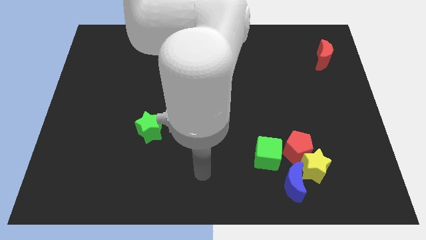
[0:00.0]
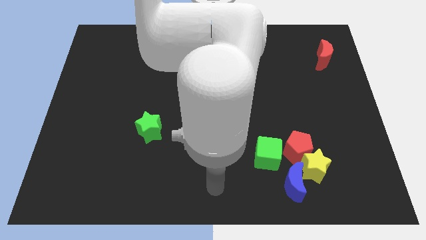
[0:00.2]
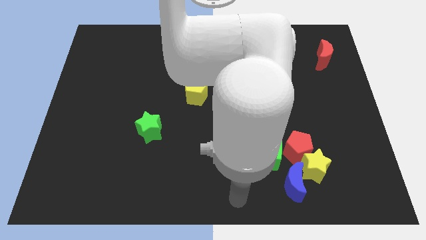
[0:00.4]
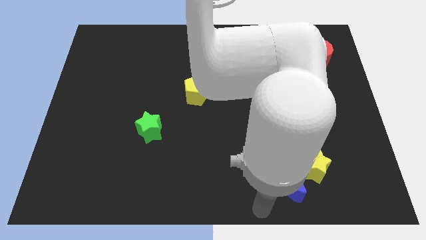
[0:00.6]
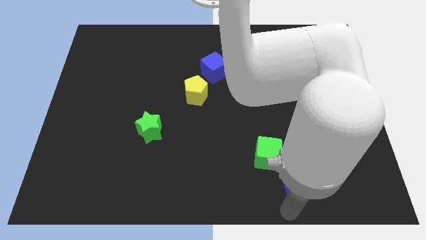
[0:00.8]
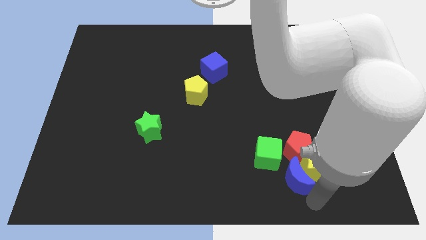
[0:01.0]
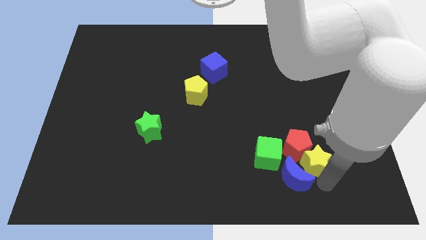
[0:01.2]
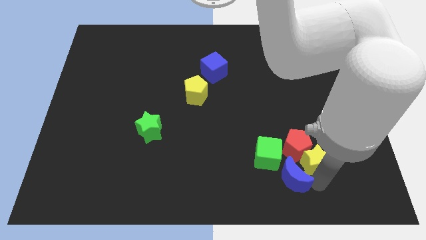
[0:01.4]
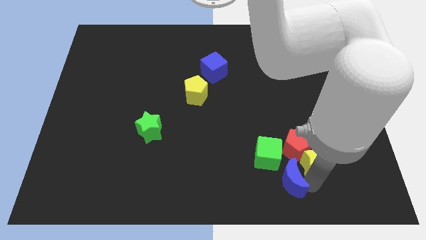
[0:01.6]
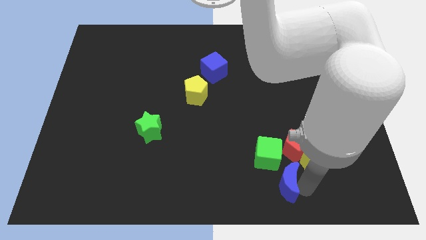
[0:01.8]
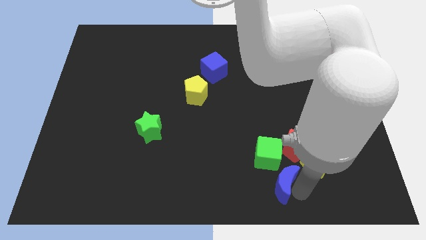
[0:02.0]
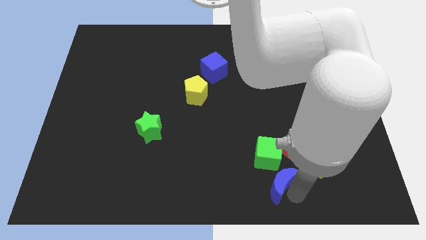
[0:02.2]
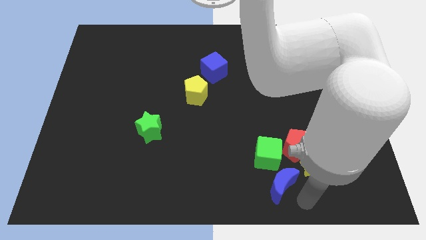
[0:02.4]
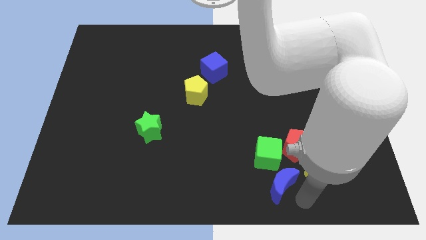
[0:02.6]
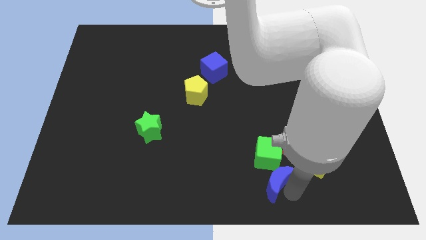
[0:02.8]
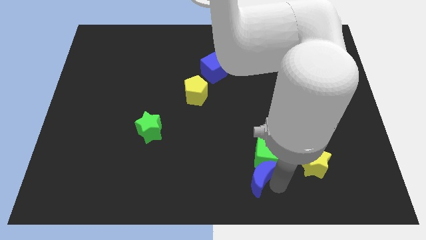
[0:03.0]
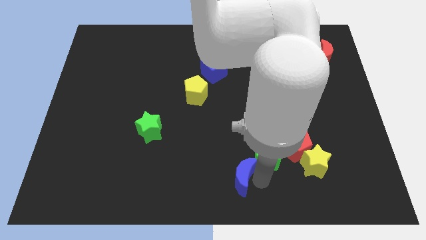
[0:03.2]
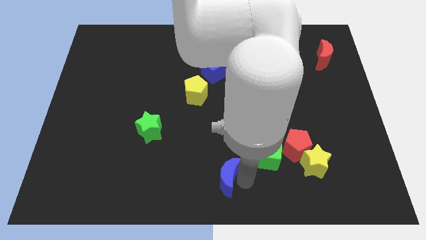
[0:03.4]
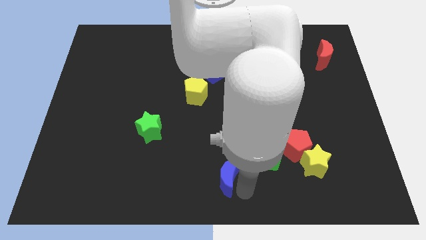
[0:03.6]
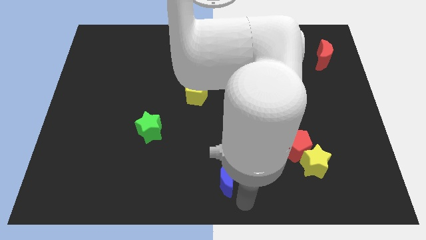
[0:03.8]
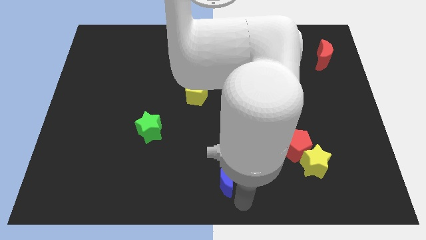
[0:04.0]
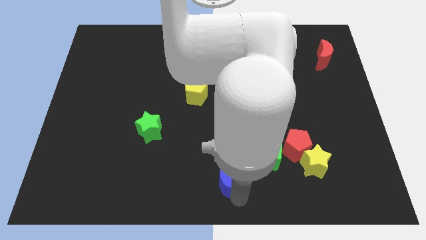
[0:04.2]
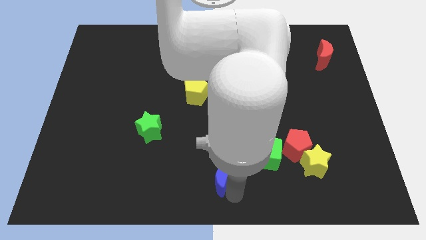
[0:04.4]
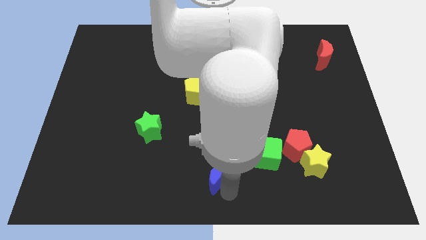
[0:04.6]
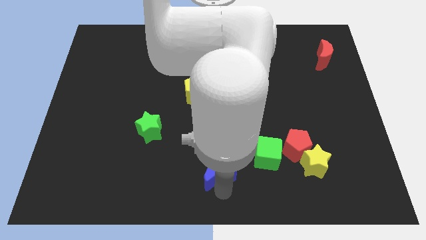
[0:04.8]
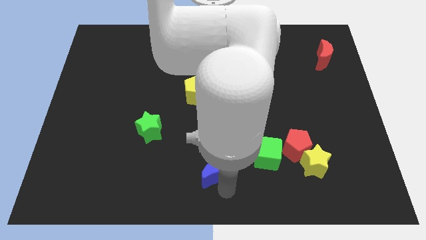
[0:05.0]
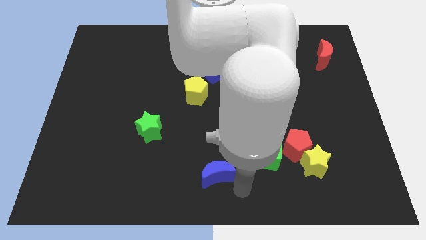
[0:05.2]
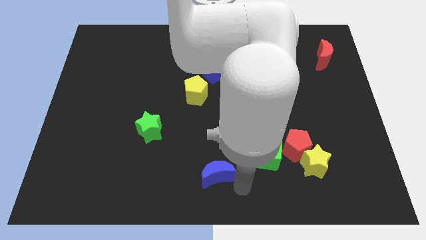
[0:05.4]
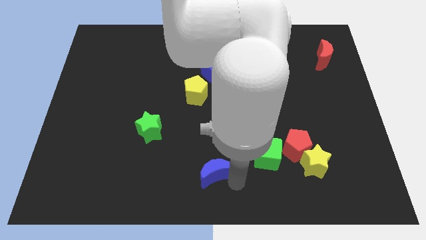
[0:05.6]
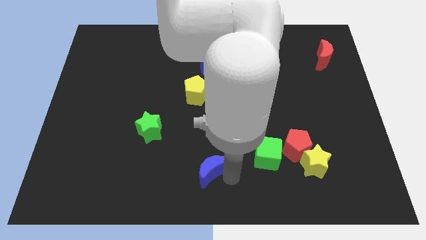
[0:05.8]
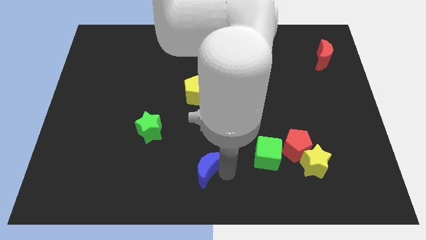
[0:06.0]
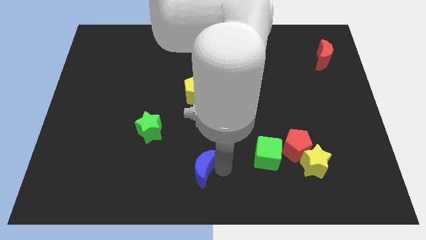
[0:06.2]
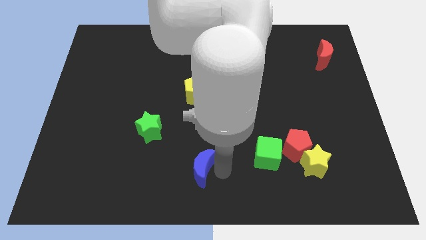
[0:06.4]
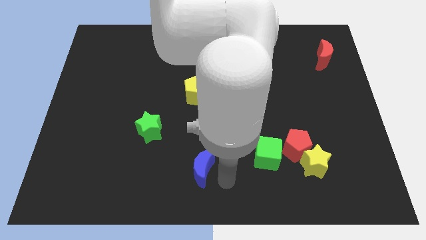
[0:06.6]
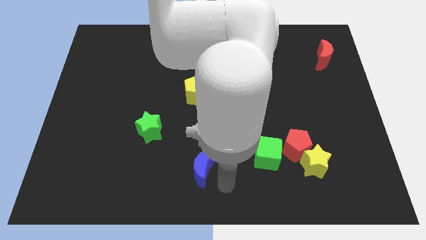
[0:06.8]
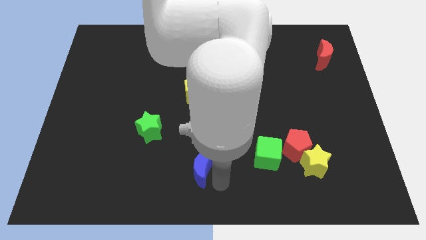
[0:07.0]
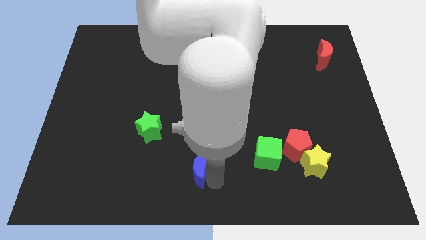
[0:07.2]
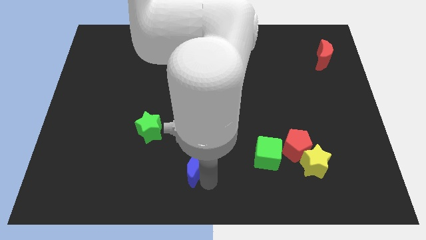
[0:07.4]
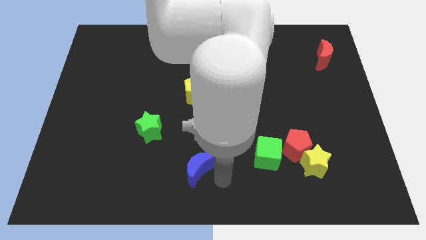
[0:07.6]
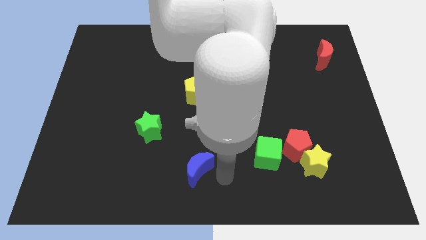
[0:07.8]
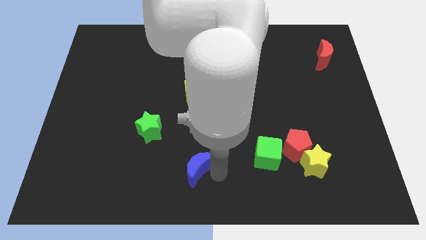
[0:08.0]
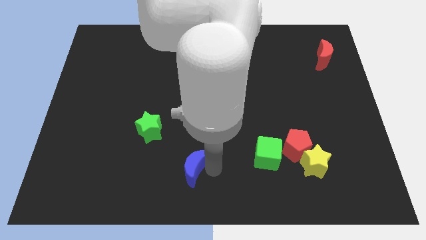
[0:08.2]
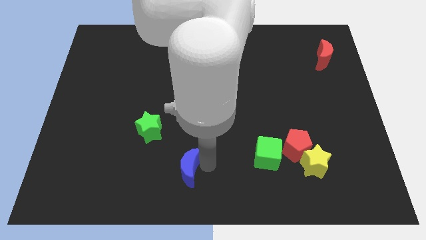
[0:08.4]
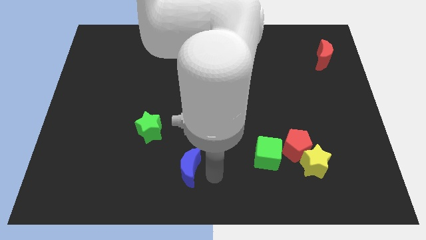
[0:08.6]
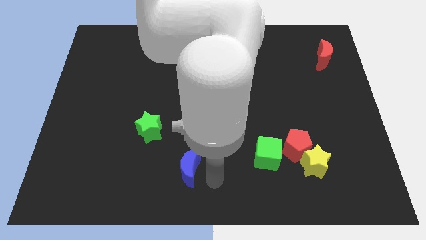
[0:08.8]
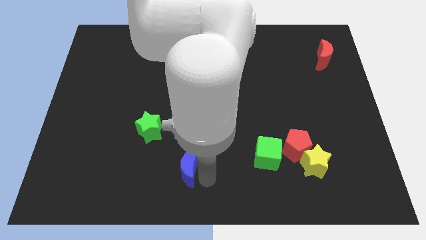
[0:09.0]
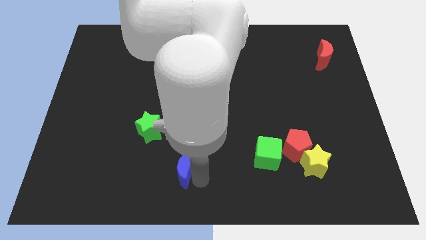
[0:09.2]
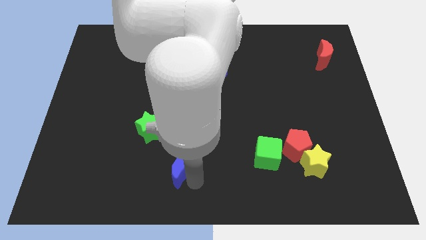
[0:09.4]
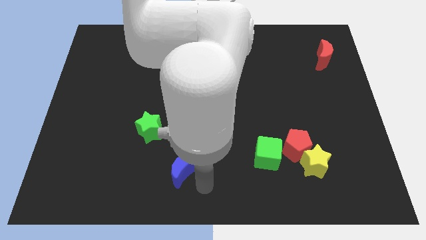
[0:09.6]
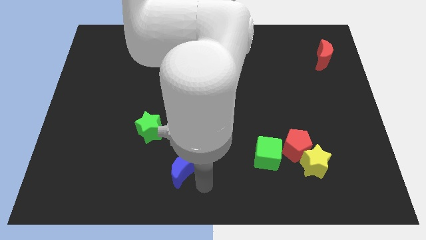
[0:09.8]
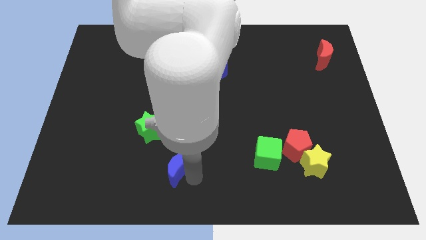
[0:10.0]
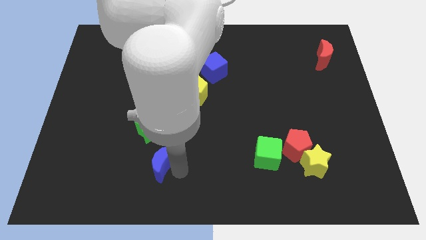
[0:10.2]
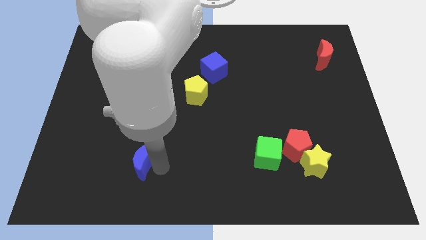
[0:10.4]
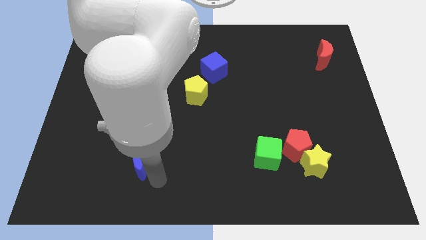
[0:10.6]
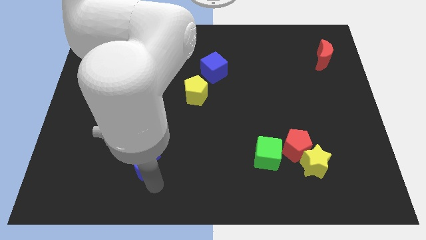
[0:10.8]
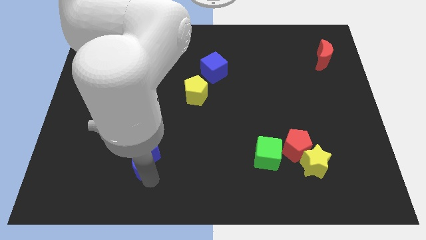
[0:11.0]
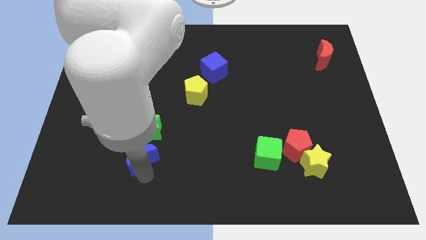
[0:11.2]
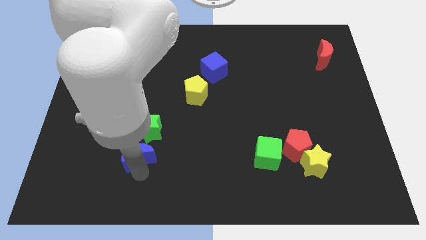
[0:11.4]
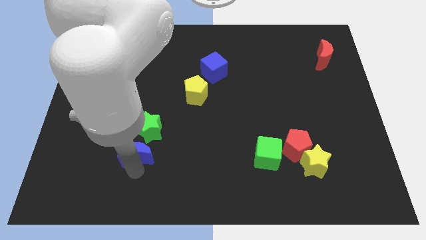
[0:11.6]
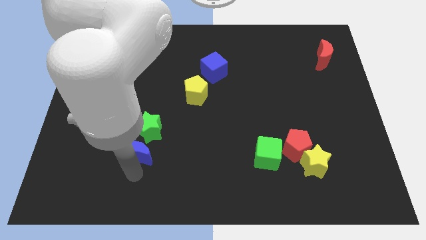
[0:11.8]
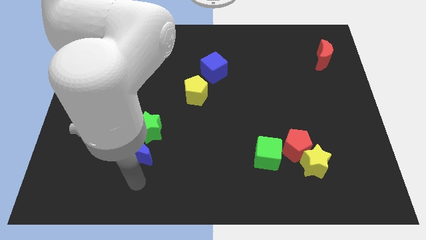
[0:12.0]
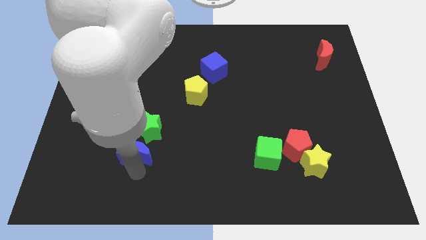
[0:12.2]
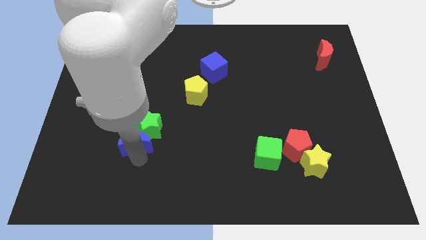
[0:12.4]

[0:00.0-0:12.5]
push the blue moon to the left side of the green star

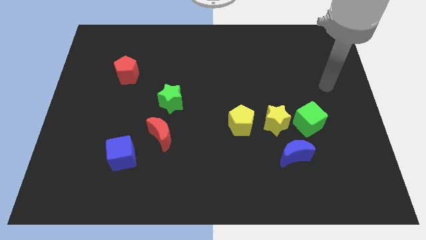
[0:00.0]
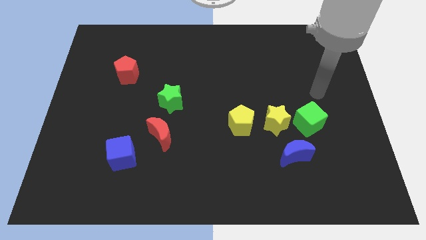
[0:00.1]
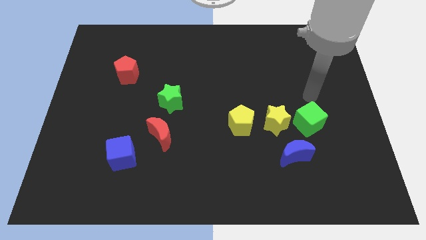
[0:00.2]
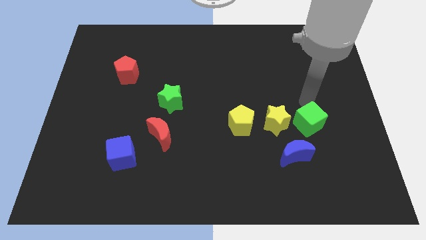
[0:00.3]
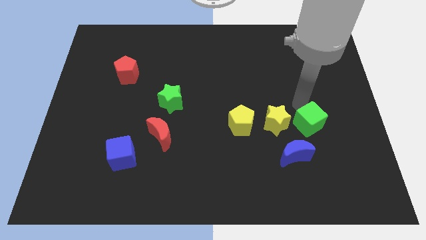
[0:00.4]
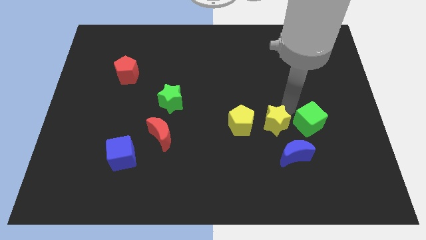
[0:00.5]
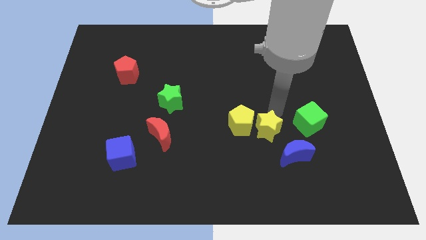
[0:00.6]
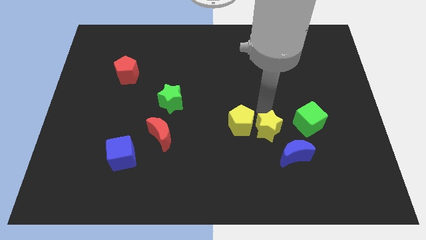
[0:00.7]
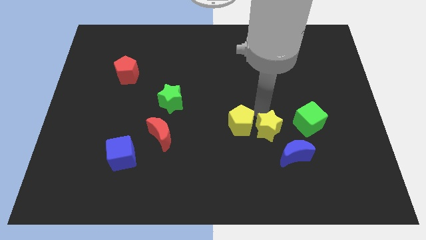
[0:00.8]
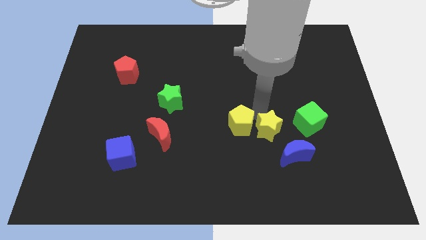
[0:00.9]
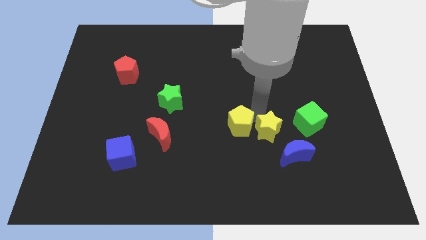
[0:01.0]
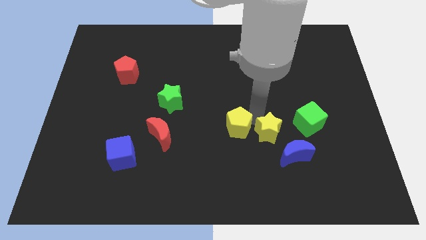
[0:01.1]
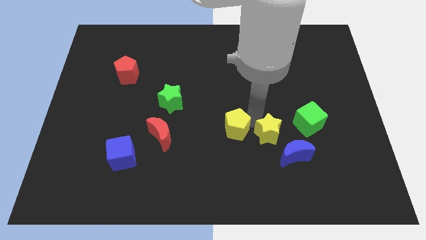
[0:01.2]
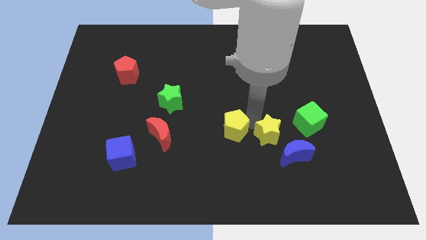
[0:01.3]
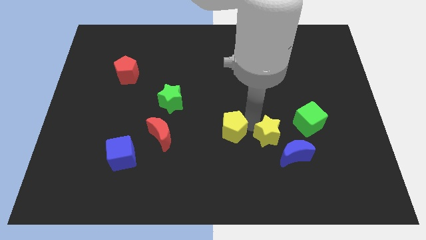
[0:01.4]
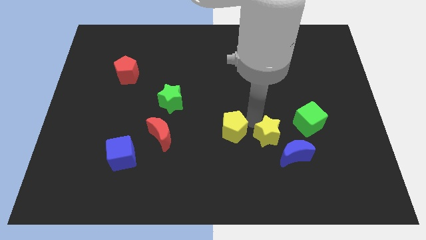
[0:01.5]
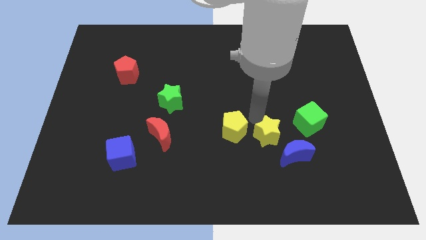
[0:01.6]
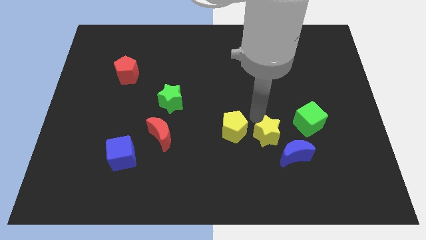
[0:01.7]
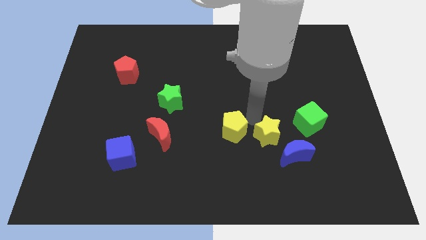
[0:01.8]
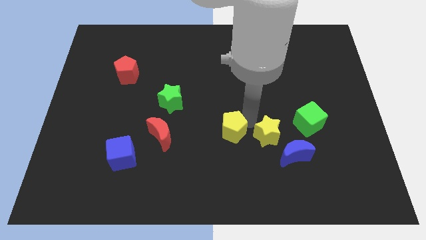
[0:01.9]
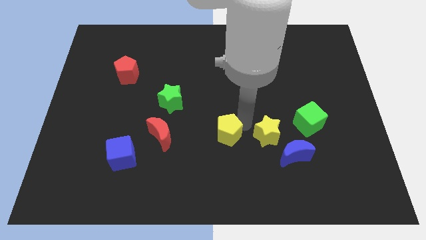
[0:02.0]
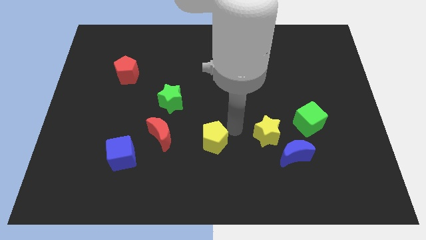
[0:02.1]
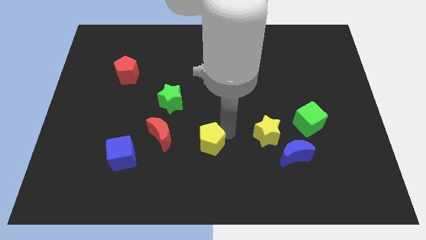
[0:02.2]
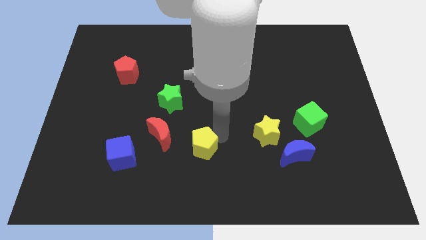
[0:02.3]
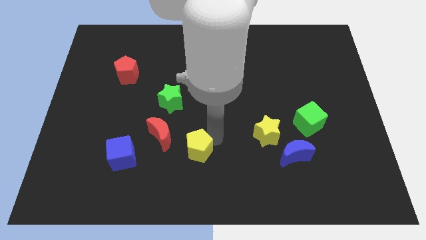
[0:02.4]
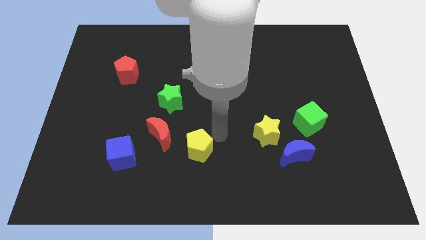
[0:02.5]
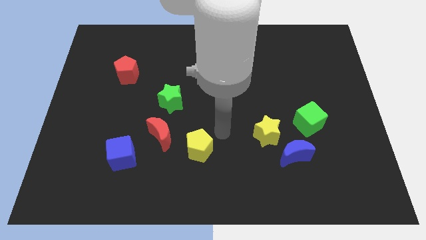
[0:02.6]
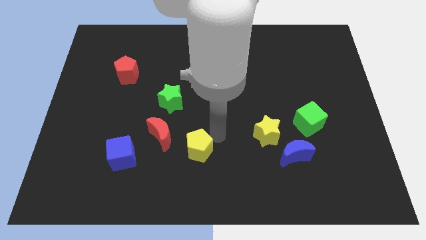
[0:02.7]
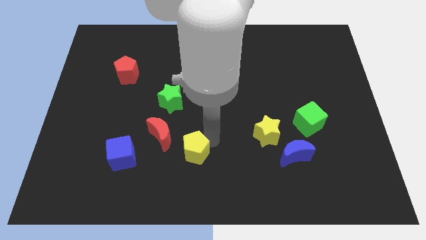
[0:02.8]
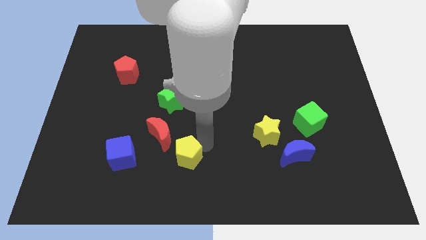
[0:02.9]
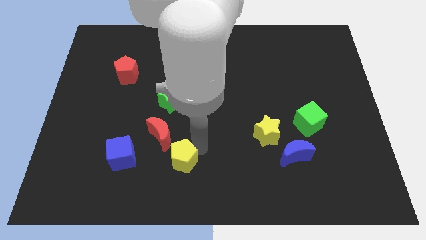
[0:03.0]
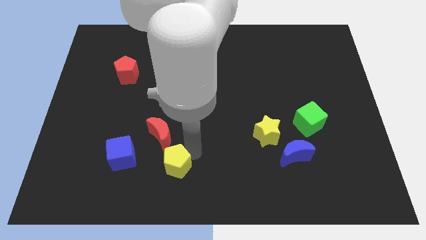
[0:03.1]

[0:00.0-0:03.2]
move the yellow pentagon below the red moon
